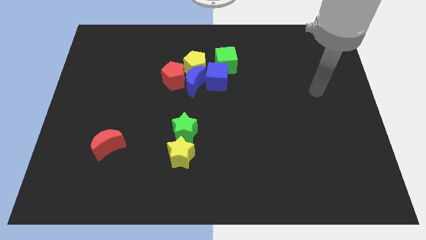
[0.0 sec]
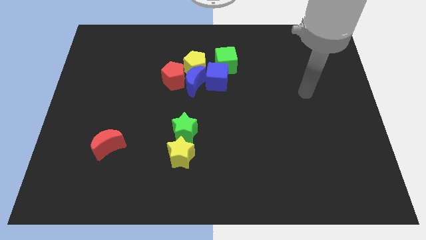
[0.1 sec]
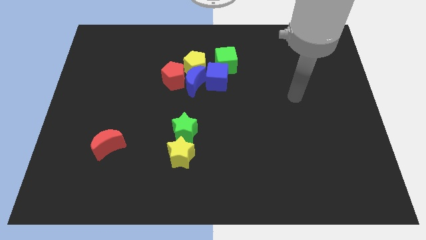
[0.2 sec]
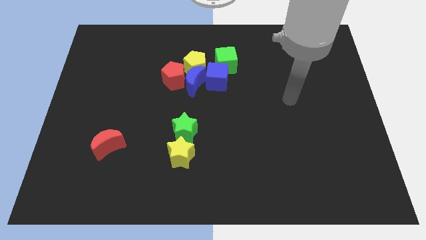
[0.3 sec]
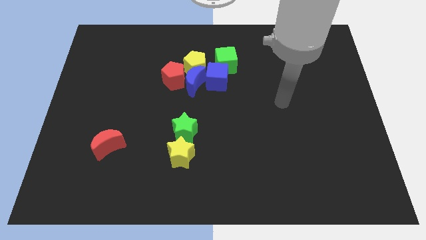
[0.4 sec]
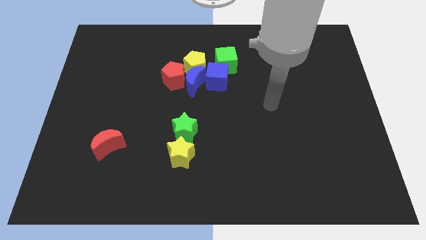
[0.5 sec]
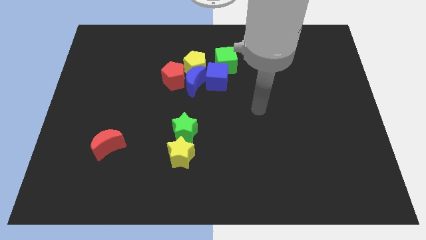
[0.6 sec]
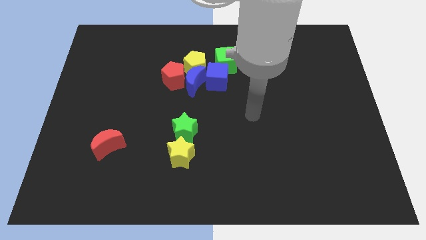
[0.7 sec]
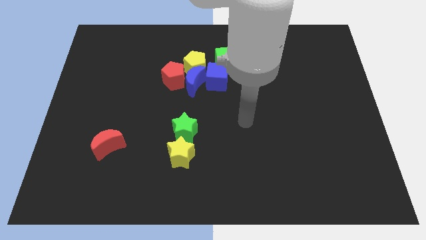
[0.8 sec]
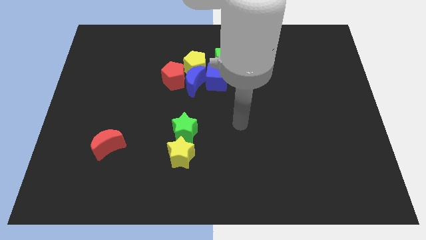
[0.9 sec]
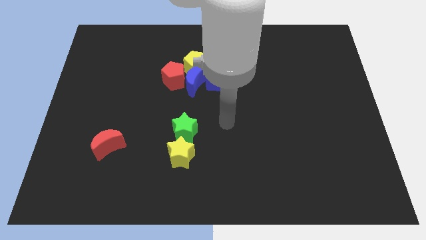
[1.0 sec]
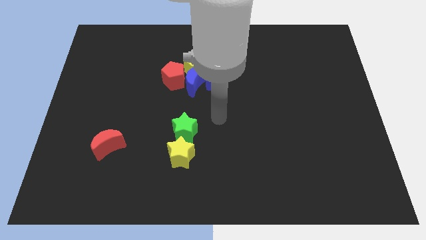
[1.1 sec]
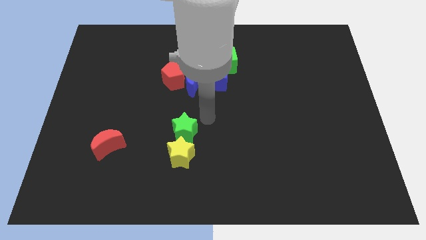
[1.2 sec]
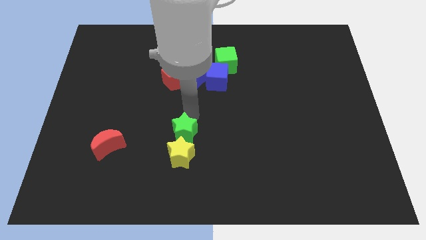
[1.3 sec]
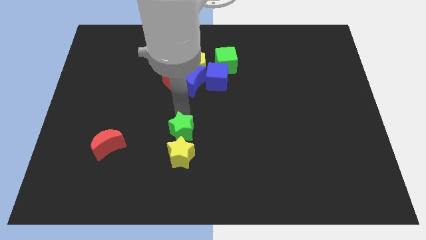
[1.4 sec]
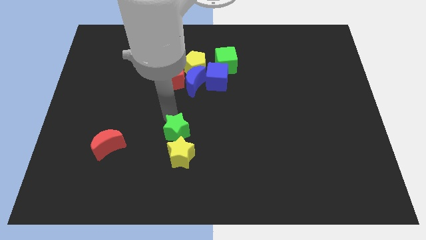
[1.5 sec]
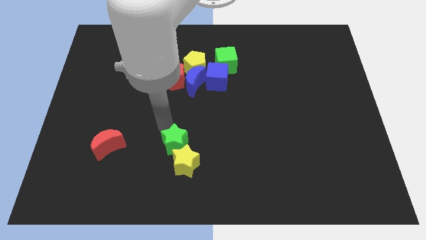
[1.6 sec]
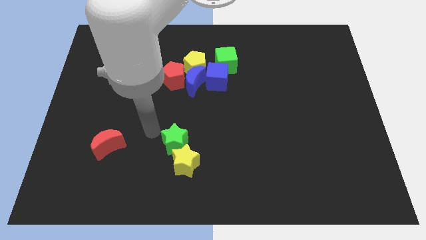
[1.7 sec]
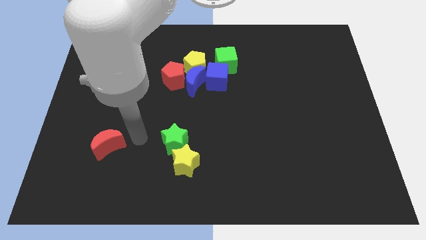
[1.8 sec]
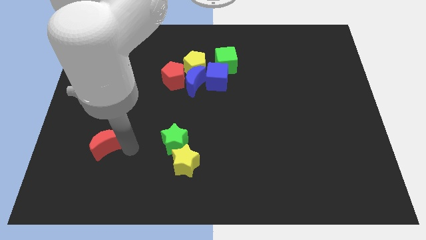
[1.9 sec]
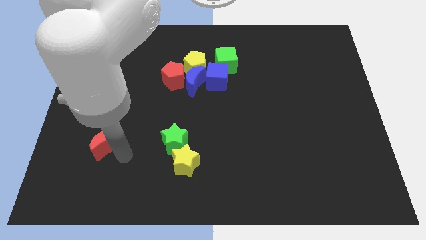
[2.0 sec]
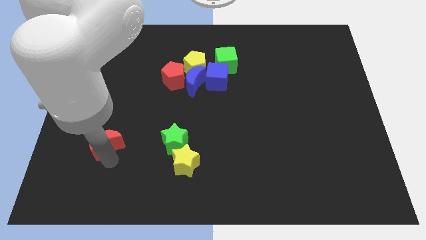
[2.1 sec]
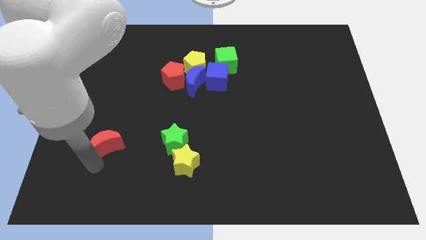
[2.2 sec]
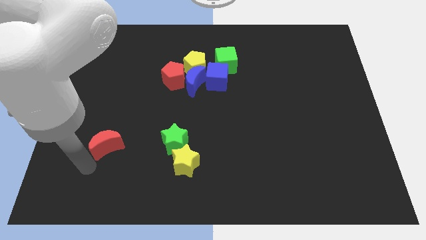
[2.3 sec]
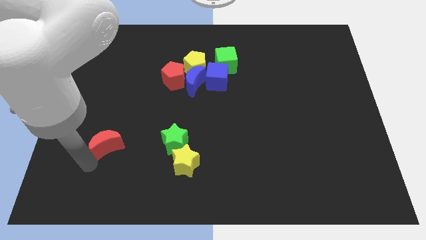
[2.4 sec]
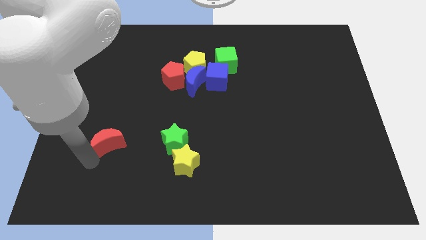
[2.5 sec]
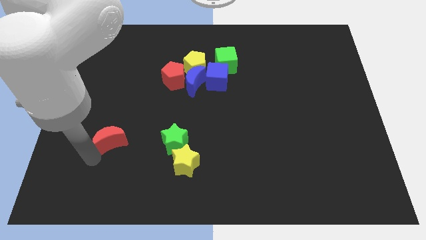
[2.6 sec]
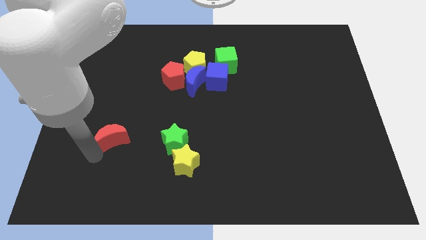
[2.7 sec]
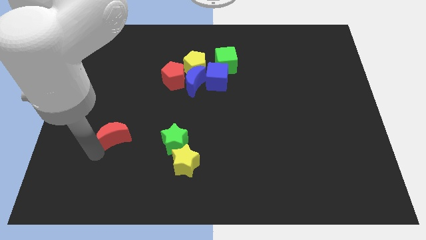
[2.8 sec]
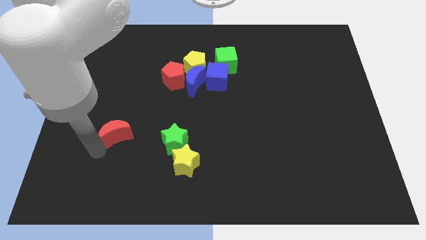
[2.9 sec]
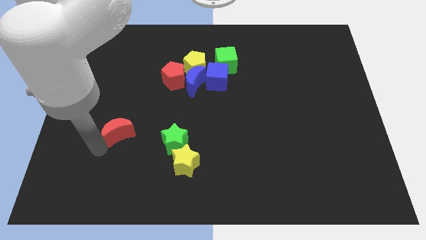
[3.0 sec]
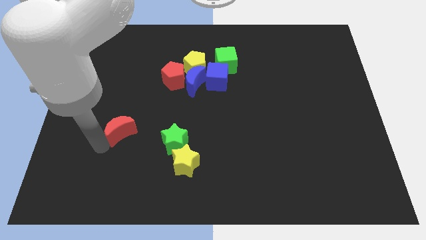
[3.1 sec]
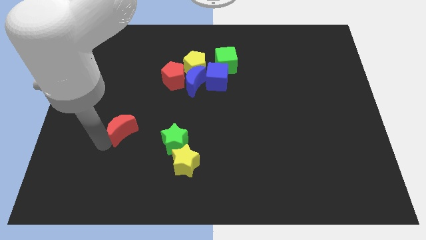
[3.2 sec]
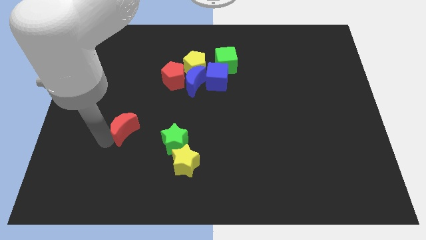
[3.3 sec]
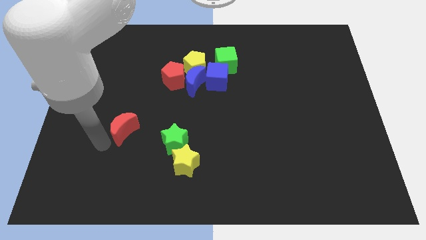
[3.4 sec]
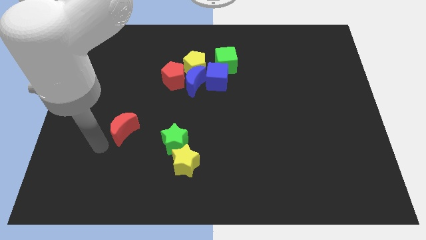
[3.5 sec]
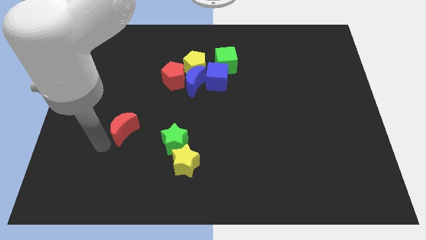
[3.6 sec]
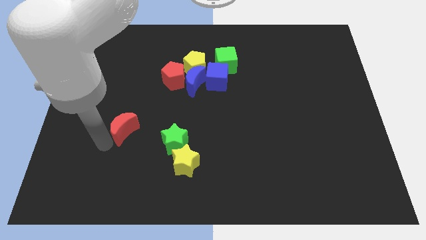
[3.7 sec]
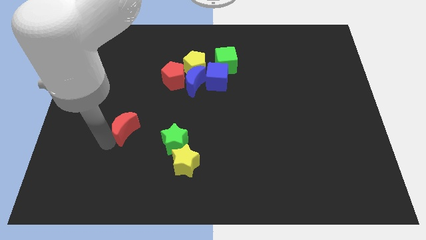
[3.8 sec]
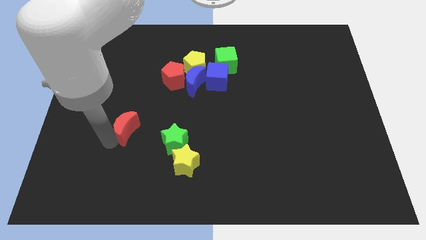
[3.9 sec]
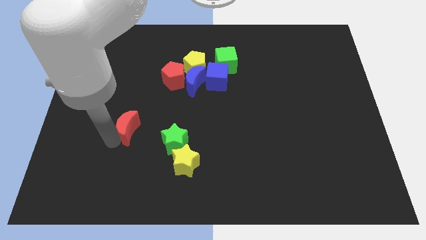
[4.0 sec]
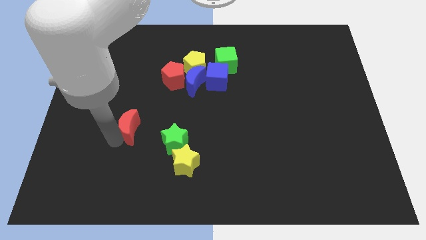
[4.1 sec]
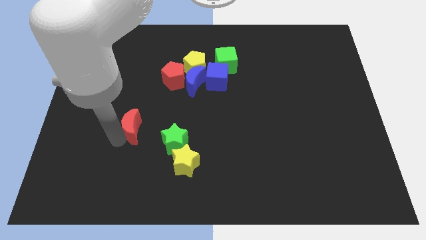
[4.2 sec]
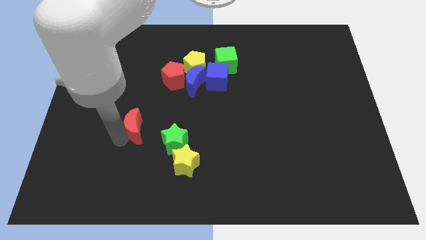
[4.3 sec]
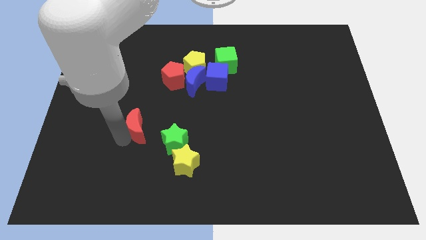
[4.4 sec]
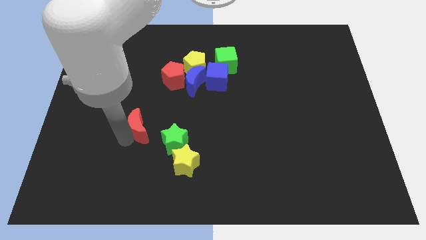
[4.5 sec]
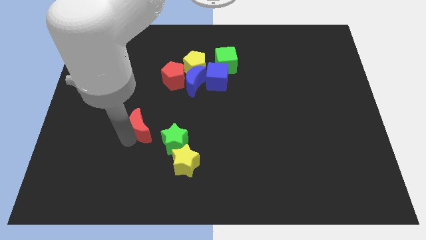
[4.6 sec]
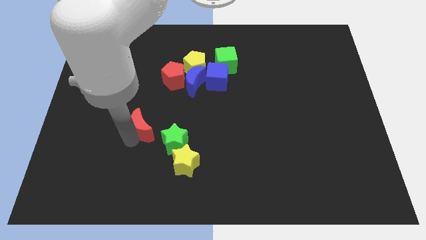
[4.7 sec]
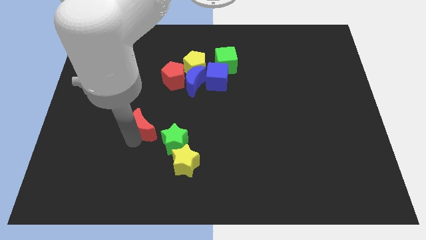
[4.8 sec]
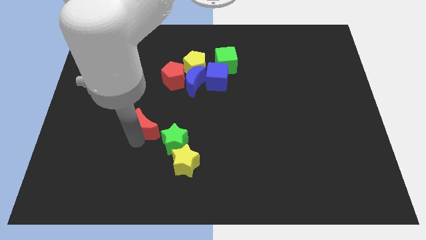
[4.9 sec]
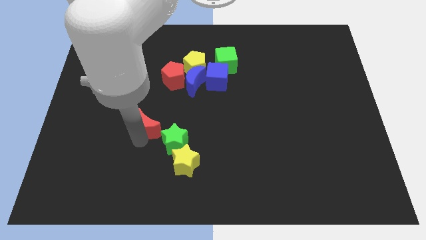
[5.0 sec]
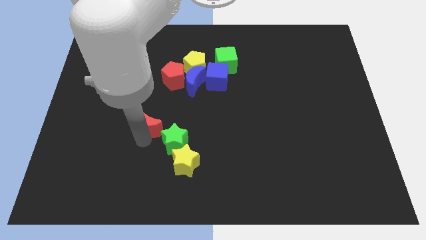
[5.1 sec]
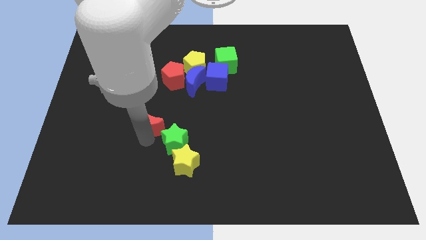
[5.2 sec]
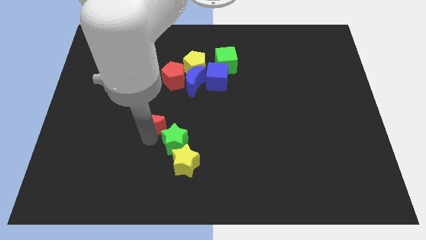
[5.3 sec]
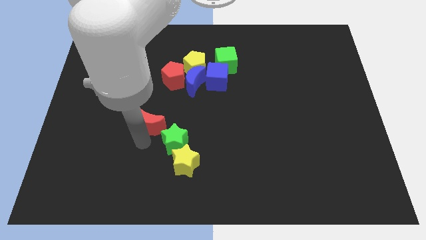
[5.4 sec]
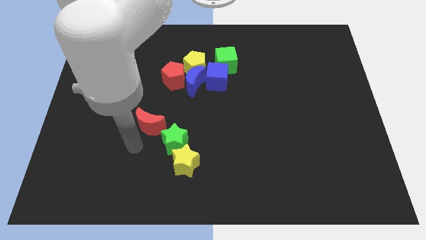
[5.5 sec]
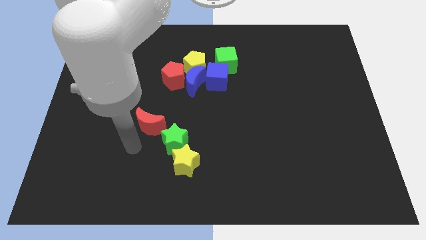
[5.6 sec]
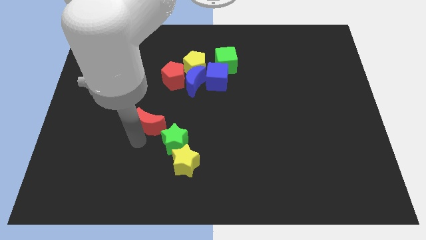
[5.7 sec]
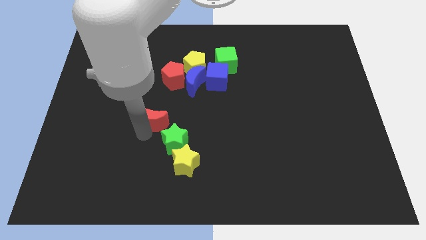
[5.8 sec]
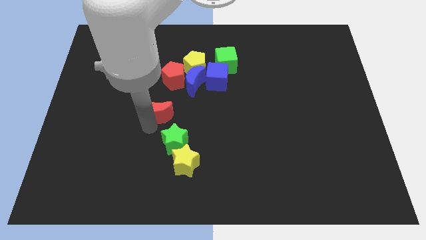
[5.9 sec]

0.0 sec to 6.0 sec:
put the red moon diagonally down and to the left of the blue moon
